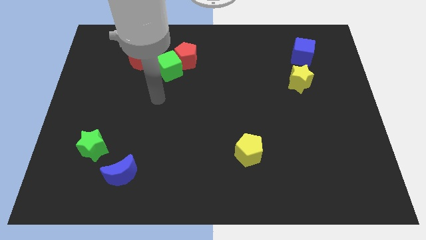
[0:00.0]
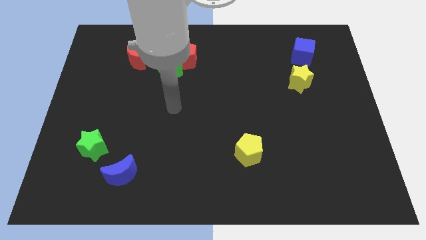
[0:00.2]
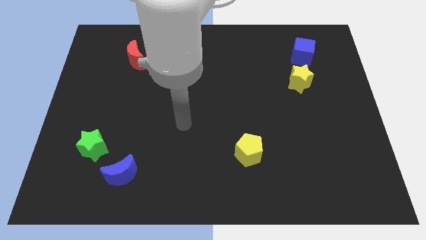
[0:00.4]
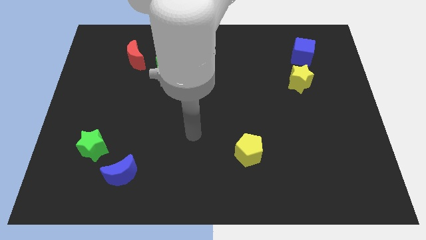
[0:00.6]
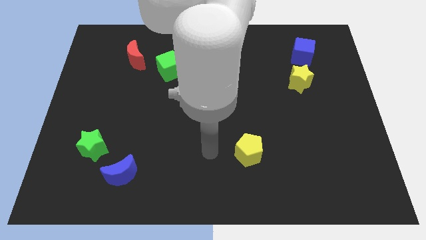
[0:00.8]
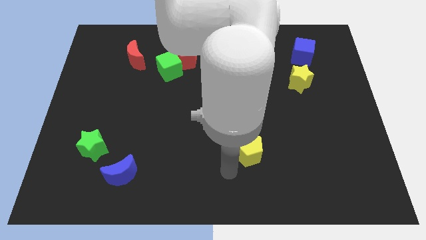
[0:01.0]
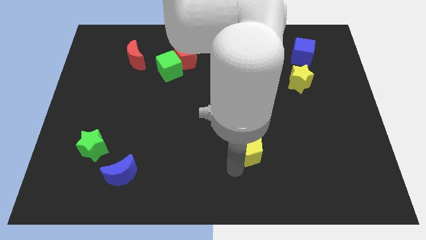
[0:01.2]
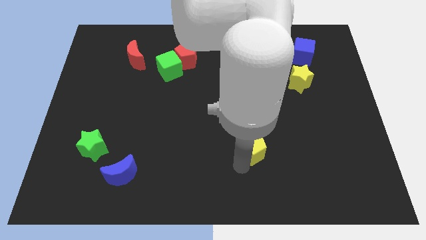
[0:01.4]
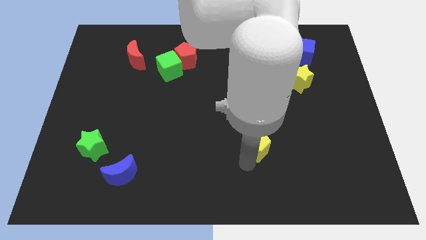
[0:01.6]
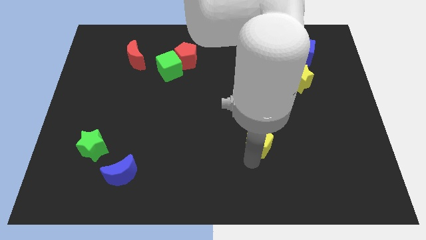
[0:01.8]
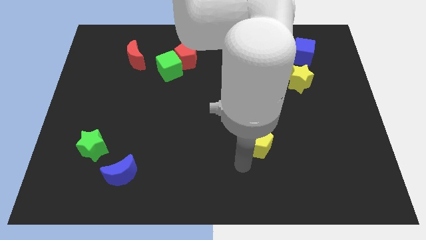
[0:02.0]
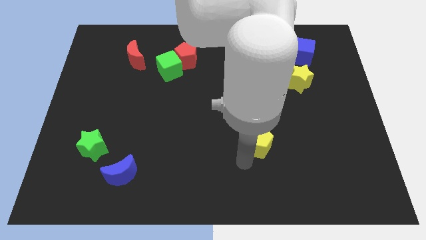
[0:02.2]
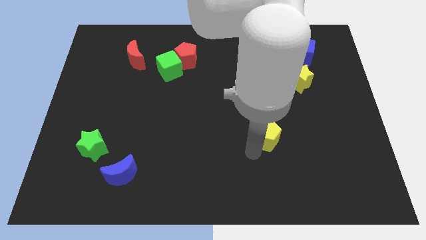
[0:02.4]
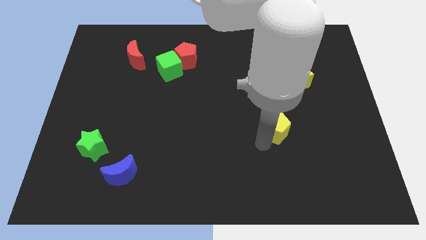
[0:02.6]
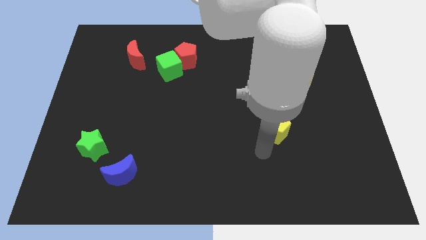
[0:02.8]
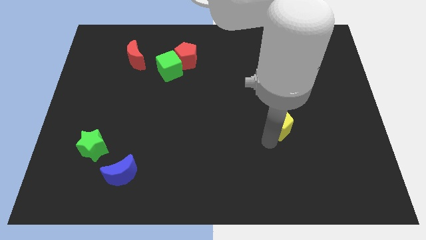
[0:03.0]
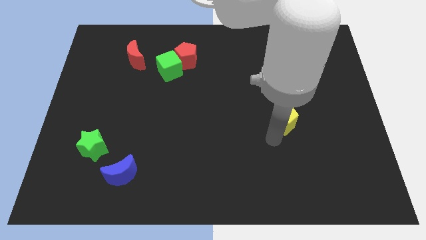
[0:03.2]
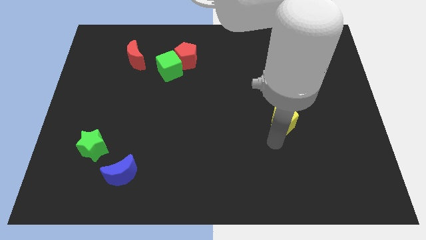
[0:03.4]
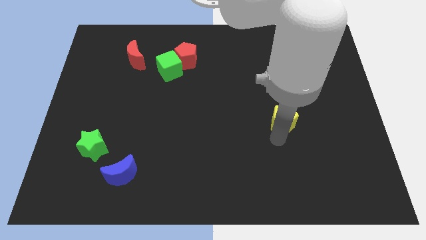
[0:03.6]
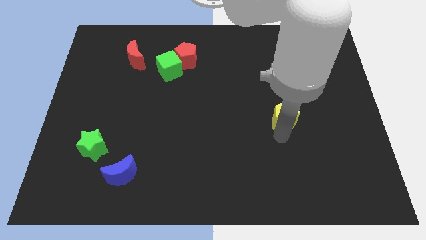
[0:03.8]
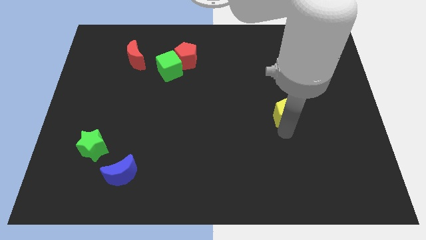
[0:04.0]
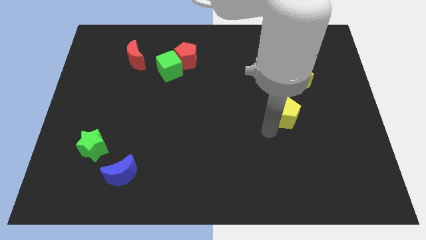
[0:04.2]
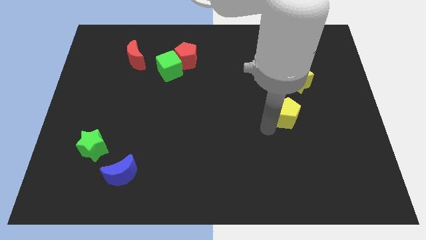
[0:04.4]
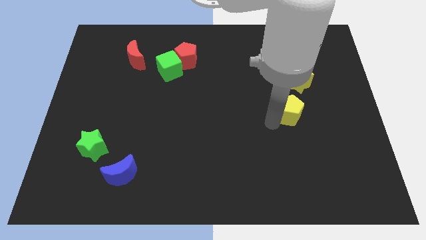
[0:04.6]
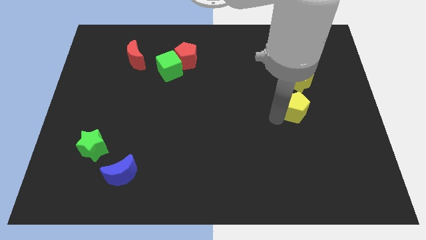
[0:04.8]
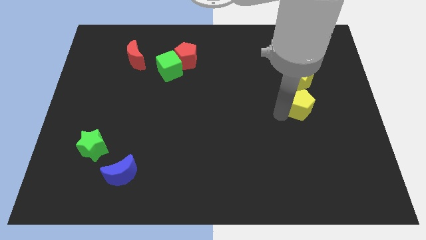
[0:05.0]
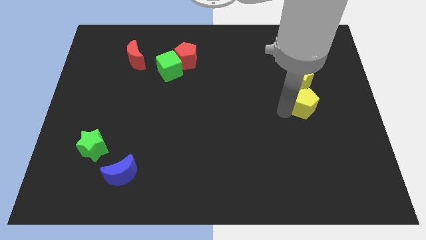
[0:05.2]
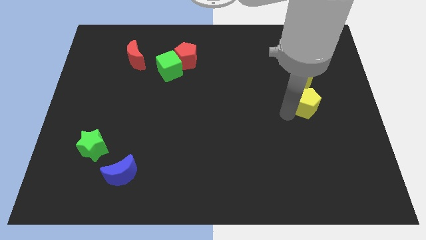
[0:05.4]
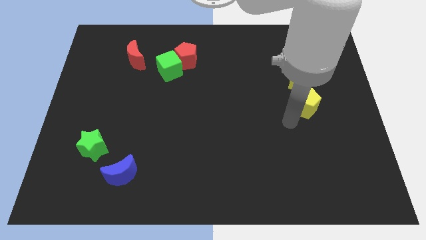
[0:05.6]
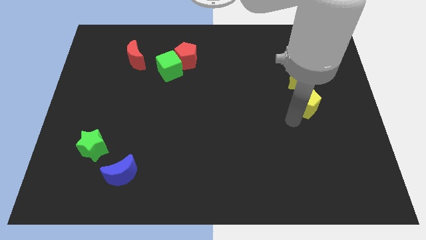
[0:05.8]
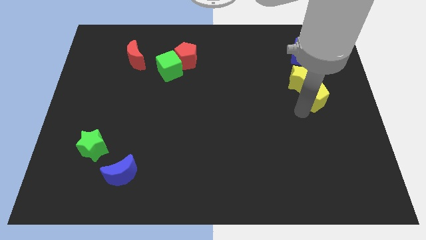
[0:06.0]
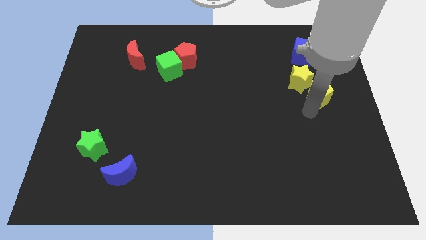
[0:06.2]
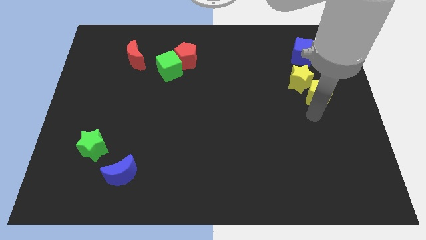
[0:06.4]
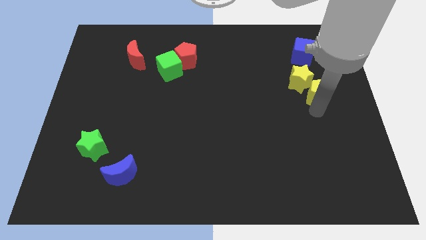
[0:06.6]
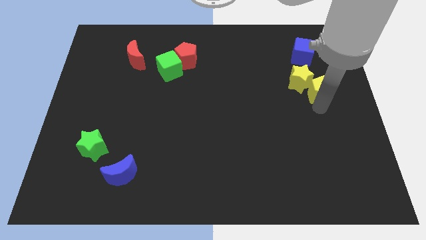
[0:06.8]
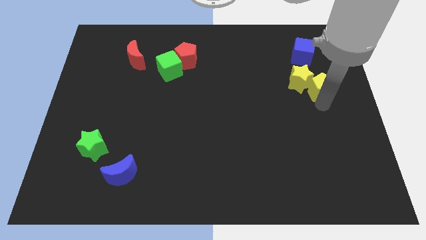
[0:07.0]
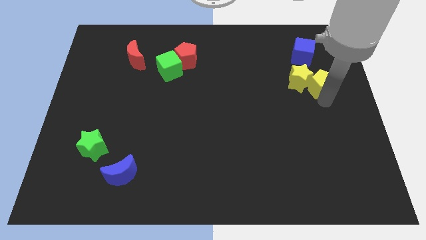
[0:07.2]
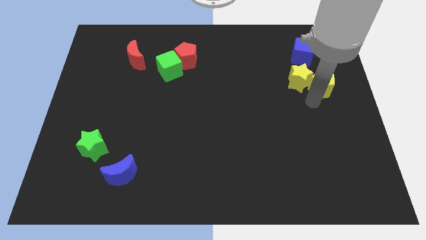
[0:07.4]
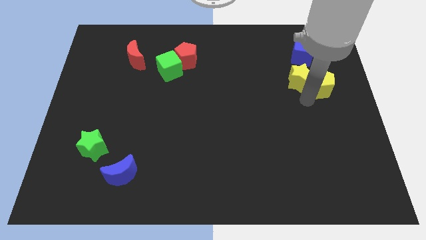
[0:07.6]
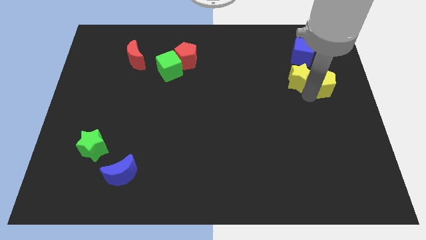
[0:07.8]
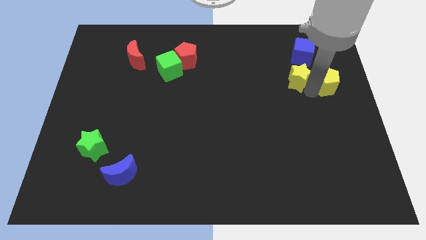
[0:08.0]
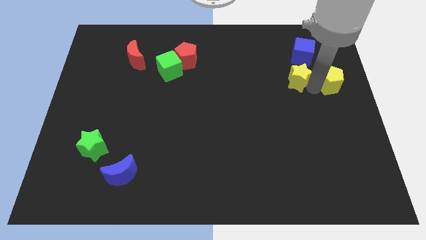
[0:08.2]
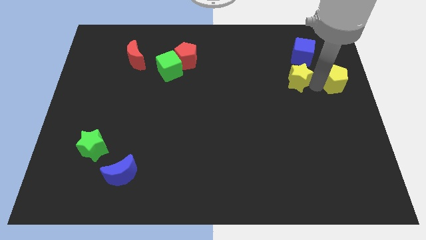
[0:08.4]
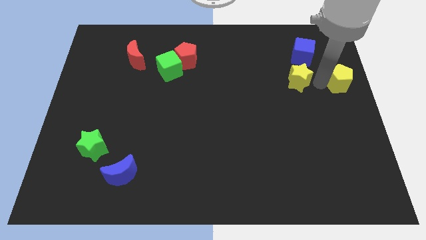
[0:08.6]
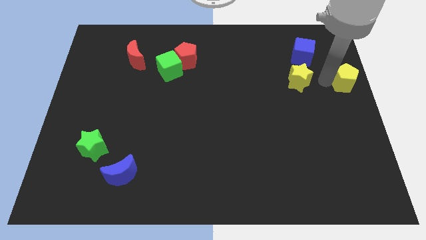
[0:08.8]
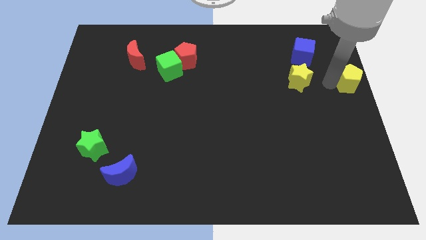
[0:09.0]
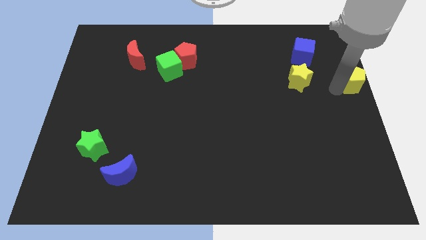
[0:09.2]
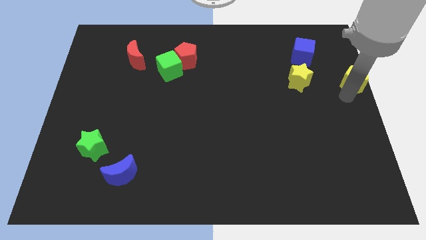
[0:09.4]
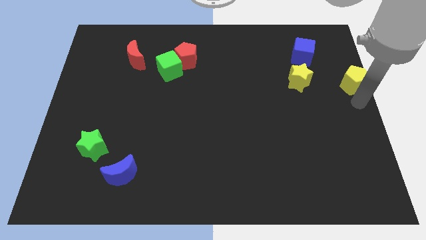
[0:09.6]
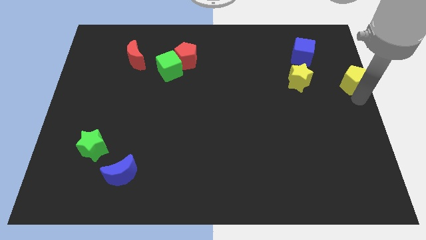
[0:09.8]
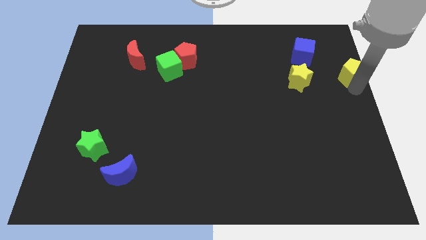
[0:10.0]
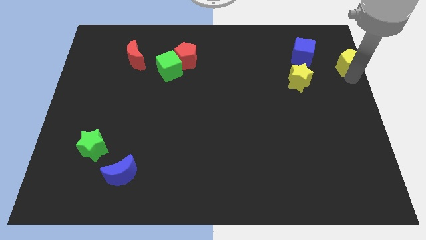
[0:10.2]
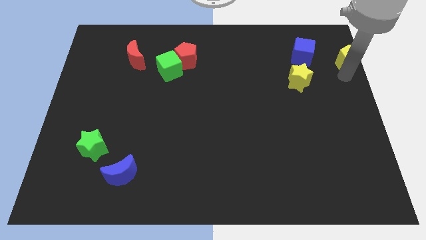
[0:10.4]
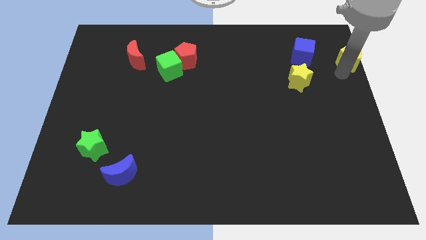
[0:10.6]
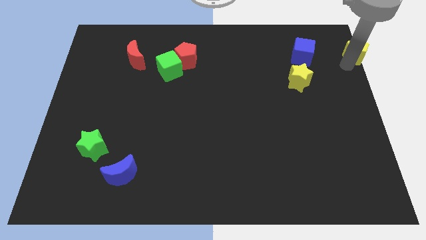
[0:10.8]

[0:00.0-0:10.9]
put the yellow pentagon to the upper right corner

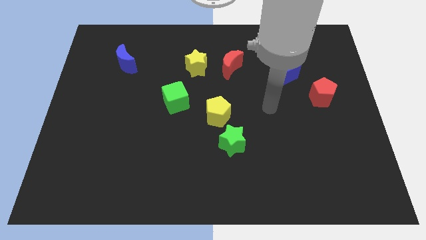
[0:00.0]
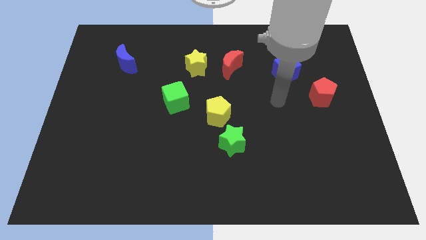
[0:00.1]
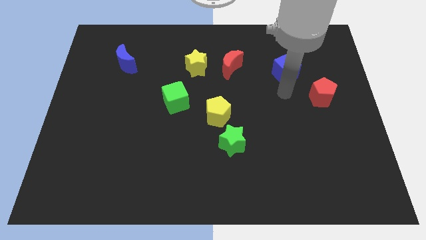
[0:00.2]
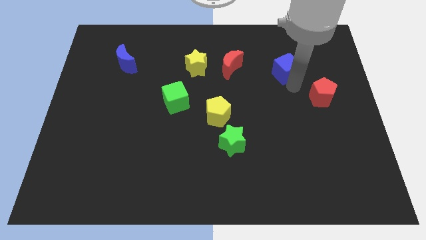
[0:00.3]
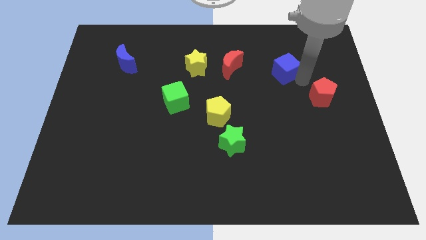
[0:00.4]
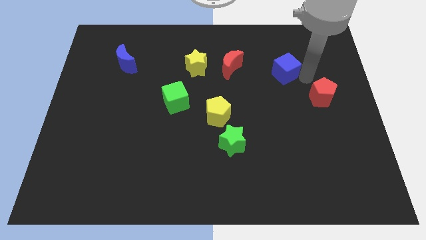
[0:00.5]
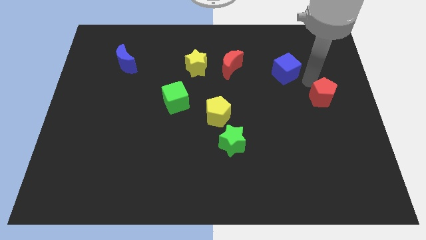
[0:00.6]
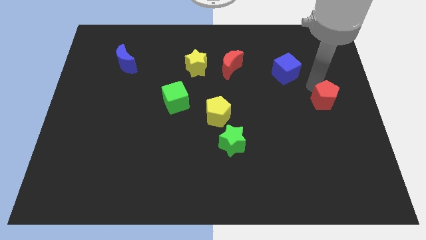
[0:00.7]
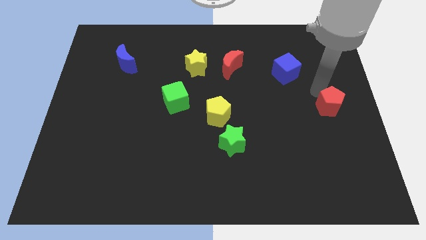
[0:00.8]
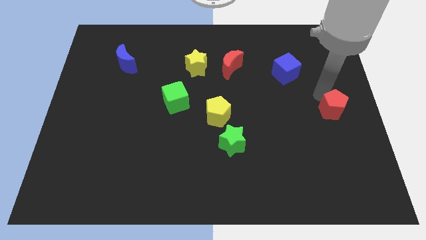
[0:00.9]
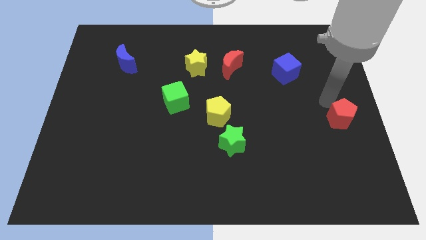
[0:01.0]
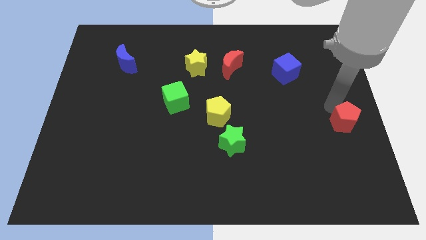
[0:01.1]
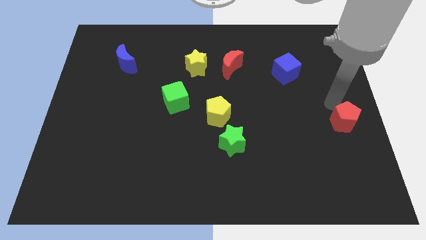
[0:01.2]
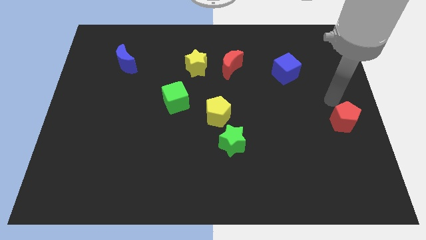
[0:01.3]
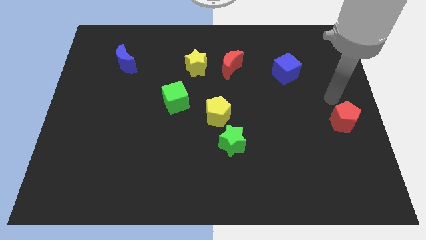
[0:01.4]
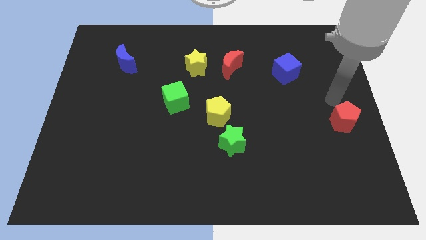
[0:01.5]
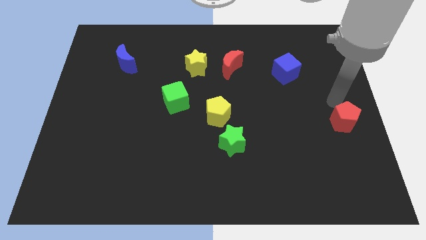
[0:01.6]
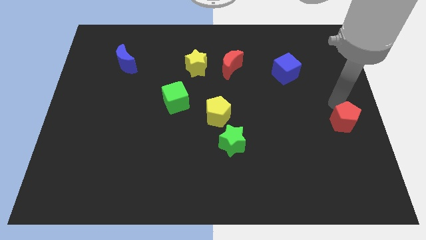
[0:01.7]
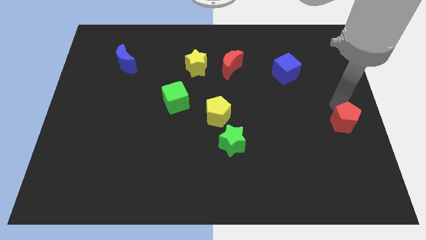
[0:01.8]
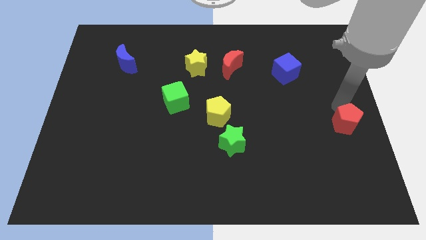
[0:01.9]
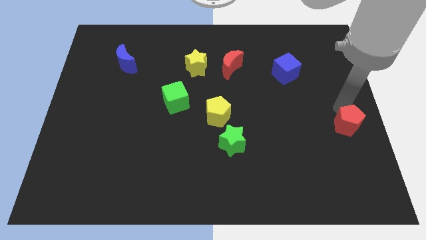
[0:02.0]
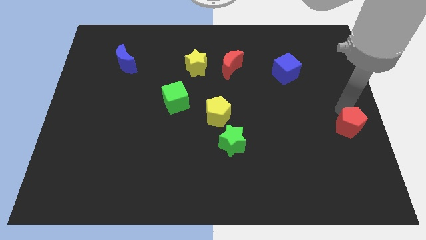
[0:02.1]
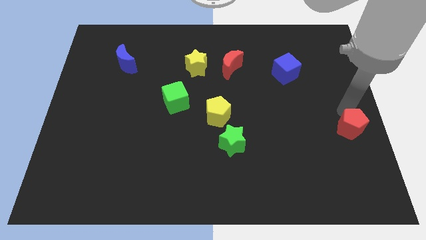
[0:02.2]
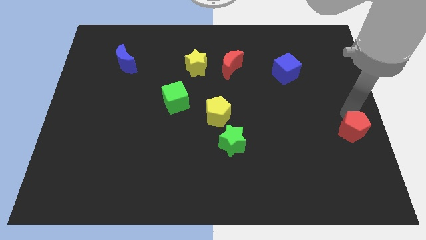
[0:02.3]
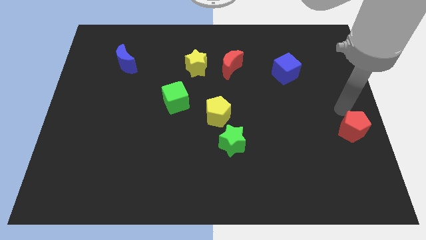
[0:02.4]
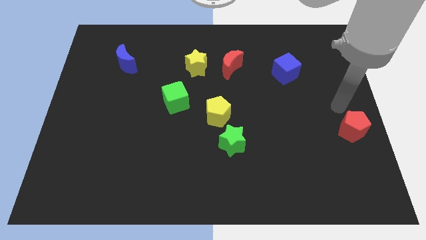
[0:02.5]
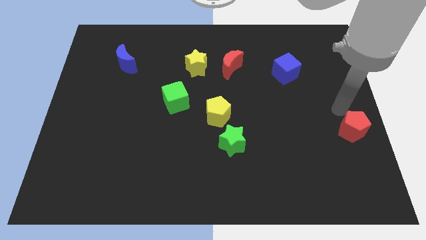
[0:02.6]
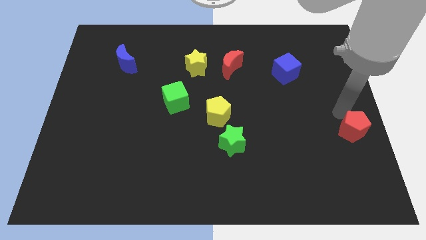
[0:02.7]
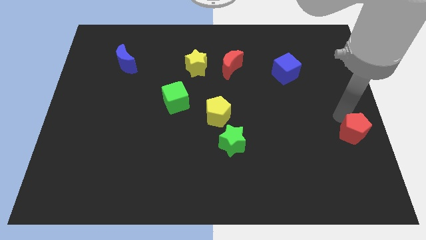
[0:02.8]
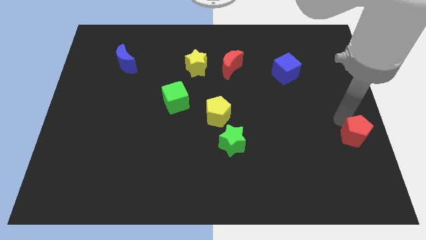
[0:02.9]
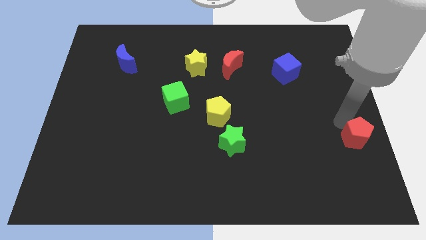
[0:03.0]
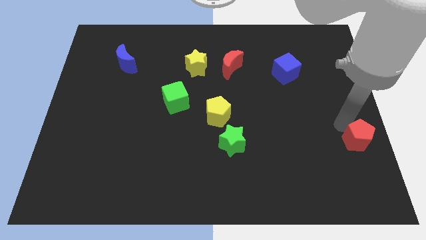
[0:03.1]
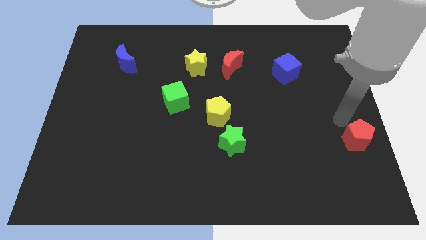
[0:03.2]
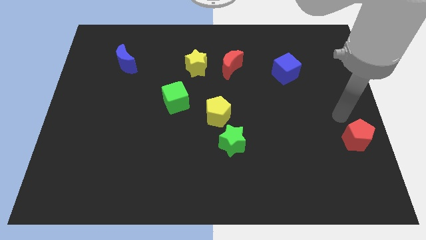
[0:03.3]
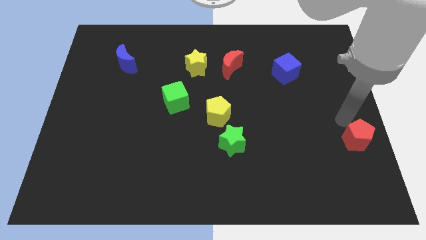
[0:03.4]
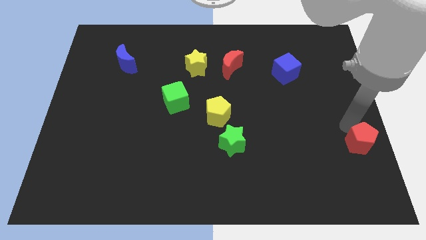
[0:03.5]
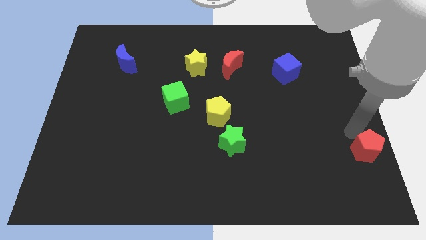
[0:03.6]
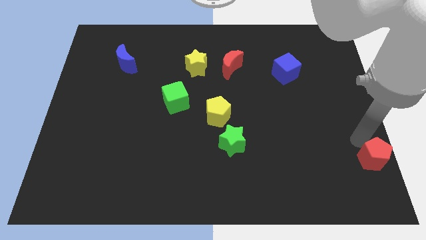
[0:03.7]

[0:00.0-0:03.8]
slide the red pentagon to the lower right corner
